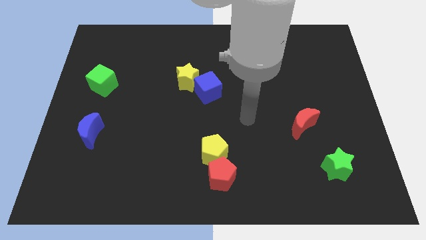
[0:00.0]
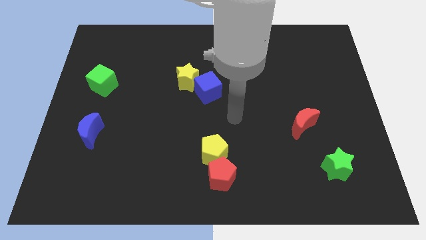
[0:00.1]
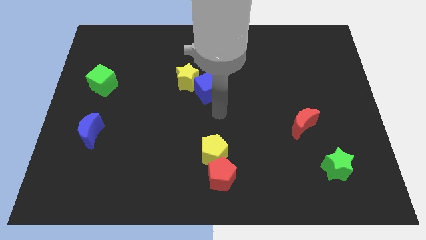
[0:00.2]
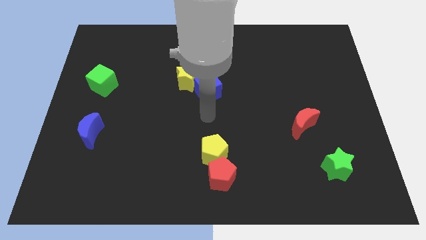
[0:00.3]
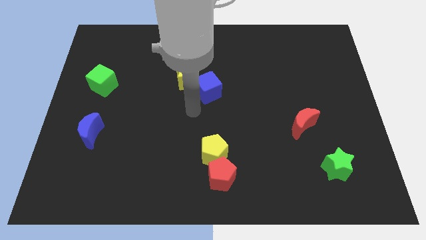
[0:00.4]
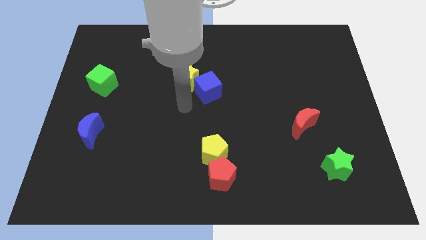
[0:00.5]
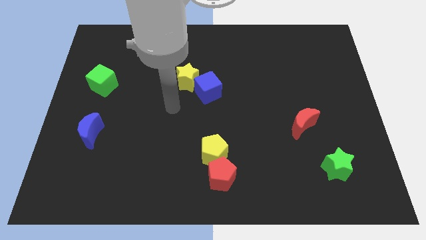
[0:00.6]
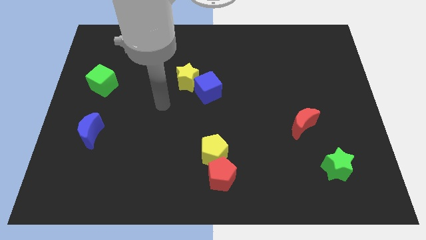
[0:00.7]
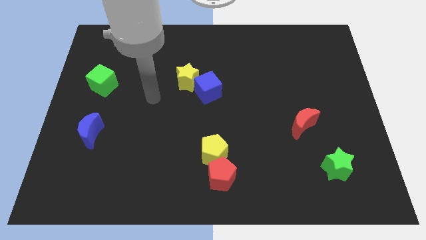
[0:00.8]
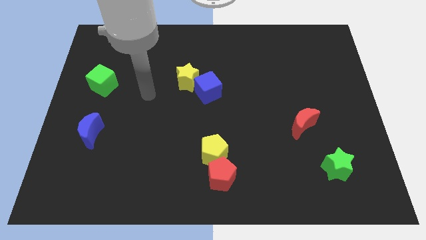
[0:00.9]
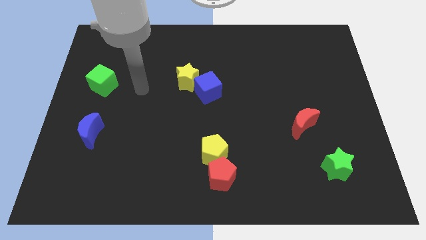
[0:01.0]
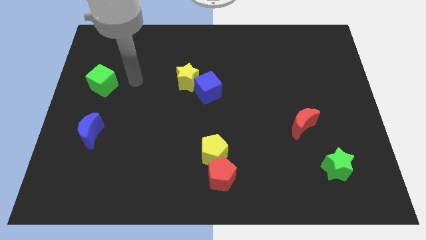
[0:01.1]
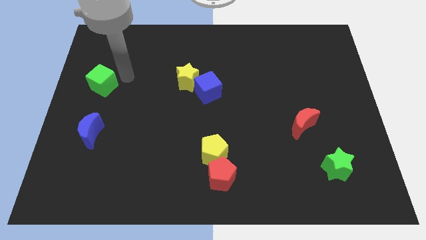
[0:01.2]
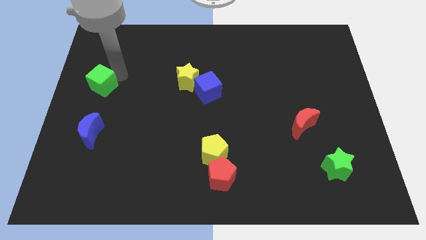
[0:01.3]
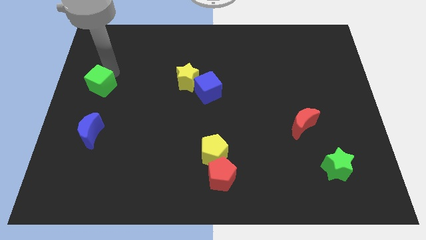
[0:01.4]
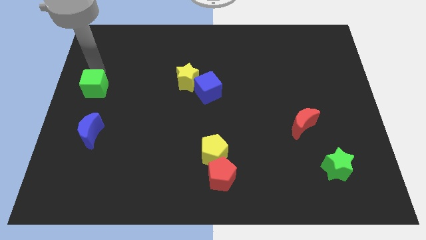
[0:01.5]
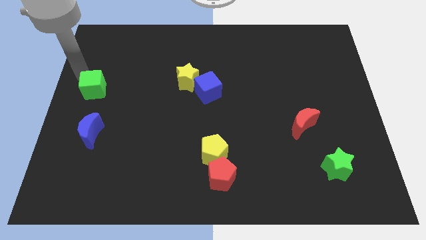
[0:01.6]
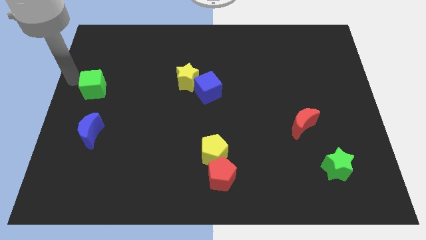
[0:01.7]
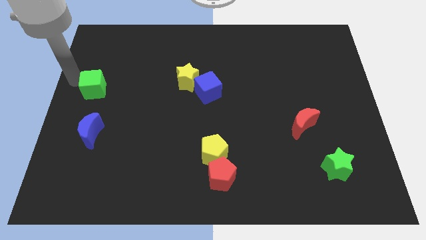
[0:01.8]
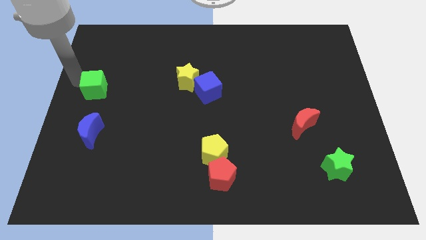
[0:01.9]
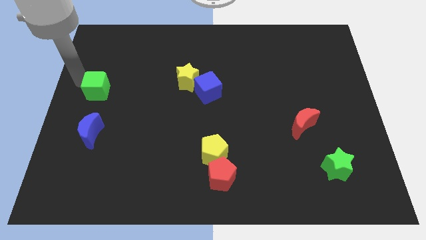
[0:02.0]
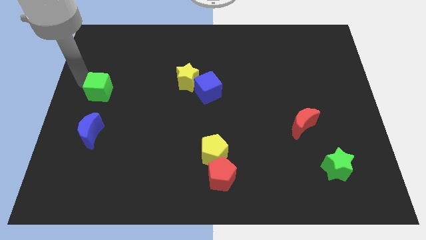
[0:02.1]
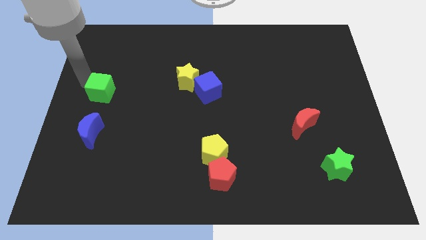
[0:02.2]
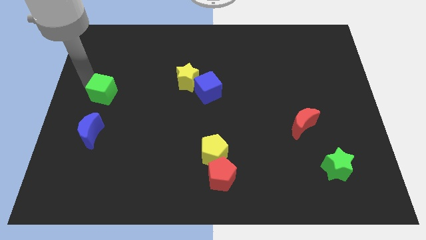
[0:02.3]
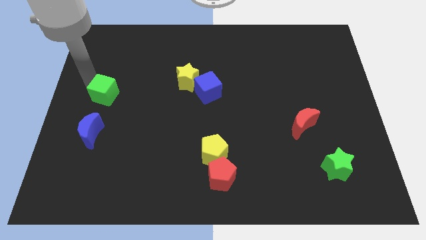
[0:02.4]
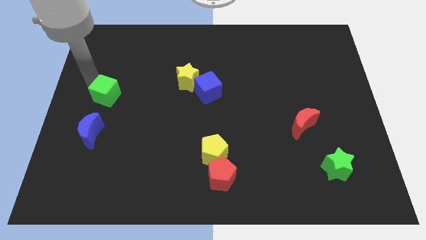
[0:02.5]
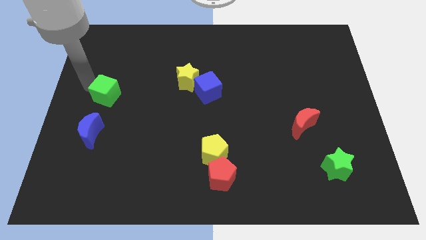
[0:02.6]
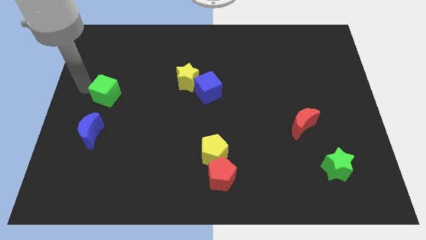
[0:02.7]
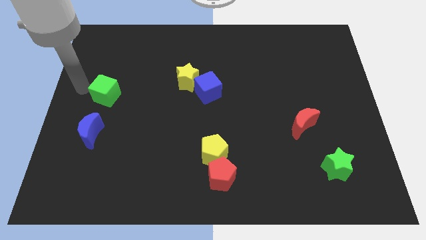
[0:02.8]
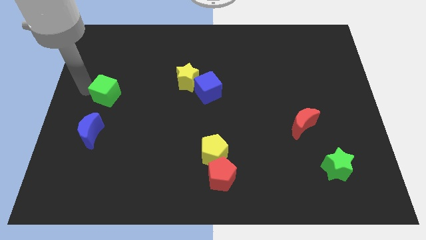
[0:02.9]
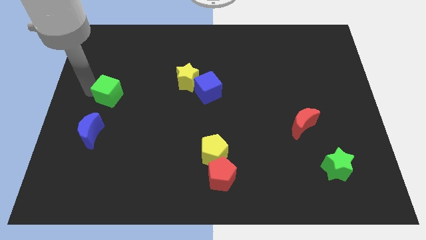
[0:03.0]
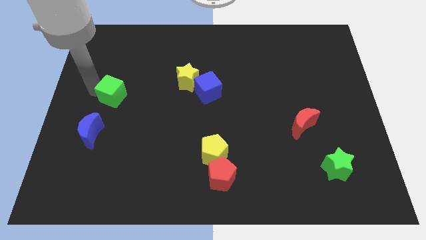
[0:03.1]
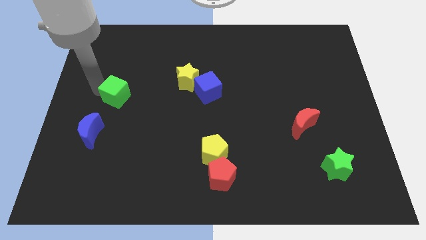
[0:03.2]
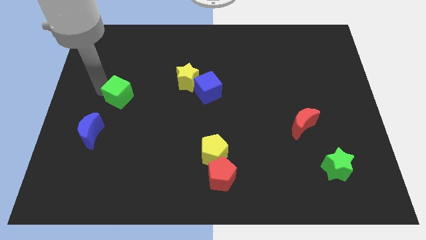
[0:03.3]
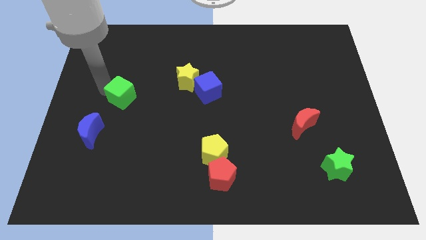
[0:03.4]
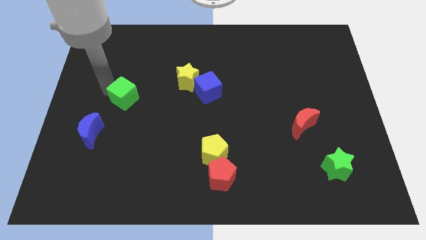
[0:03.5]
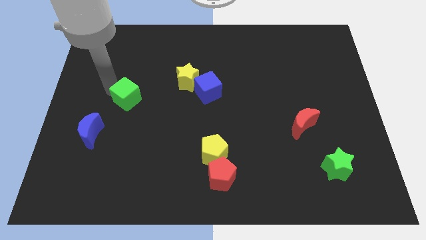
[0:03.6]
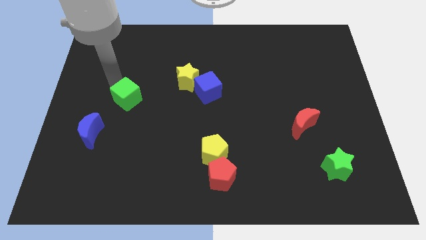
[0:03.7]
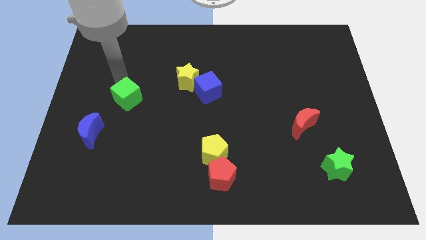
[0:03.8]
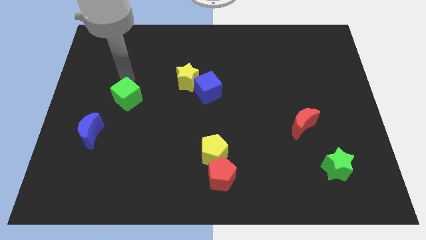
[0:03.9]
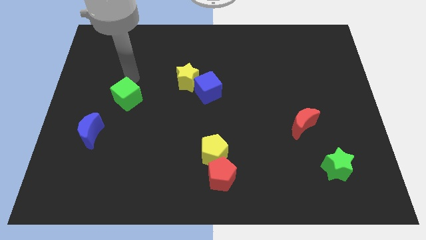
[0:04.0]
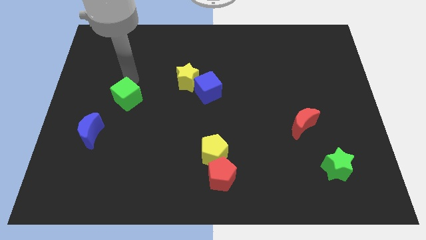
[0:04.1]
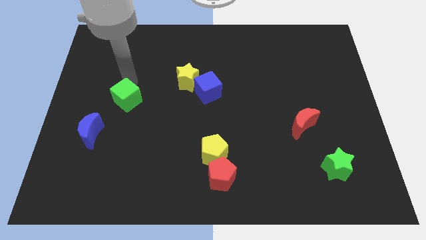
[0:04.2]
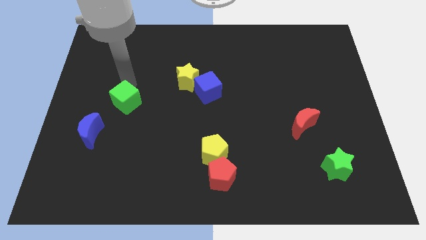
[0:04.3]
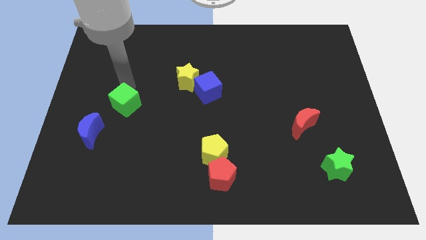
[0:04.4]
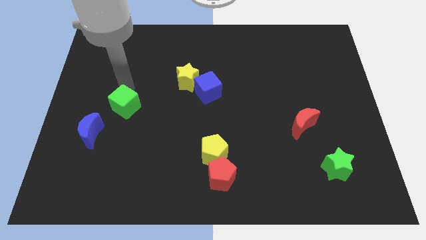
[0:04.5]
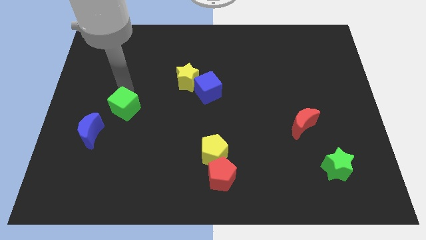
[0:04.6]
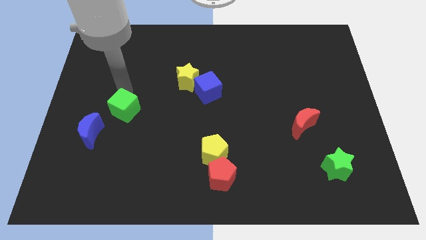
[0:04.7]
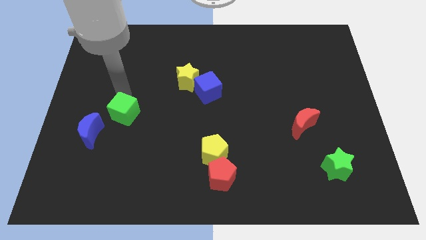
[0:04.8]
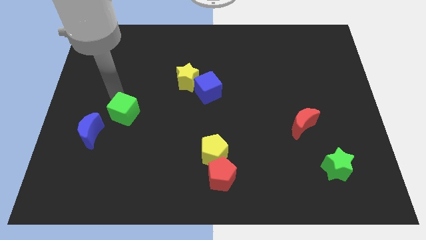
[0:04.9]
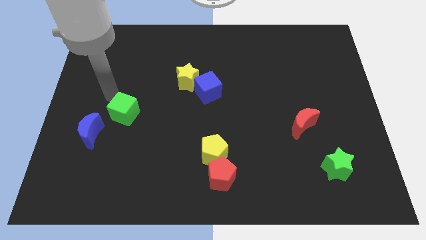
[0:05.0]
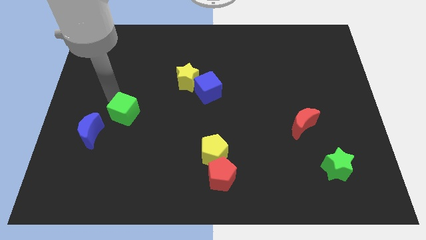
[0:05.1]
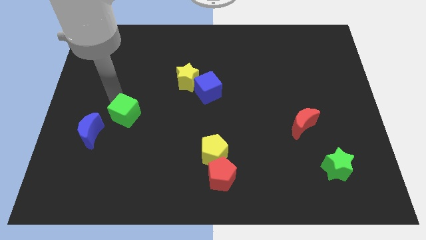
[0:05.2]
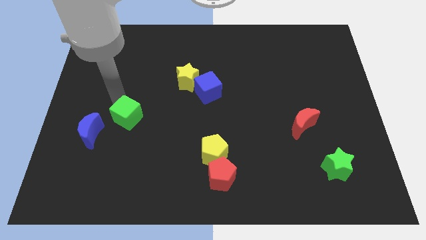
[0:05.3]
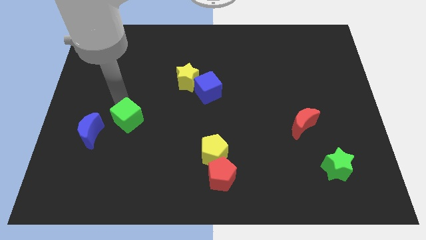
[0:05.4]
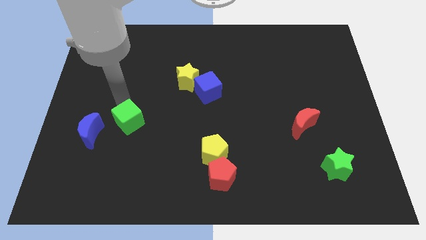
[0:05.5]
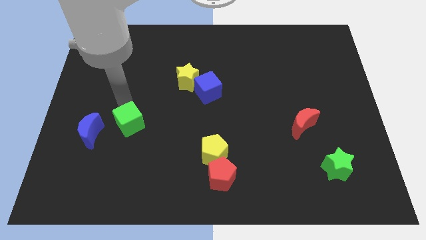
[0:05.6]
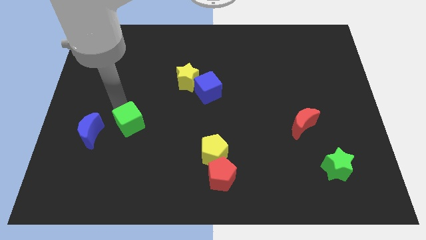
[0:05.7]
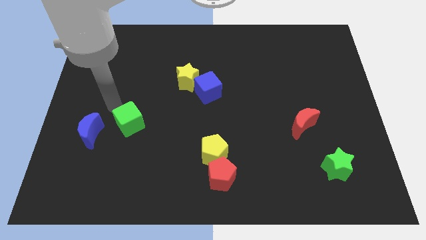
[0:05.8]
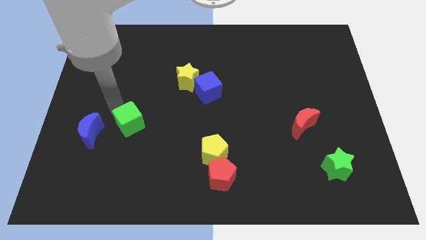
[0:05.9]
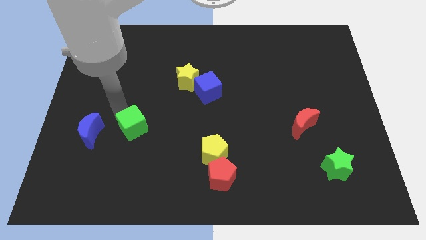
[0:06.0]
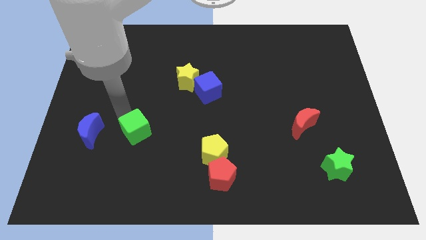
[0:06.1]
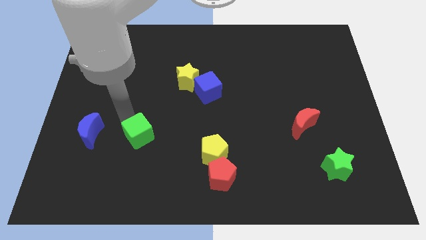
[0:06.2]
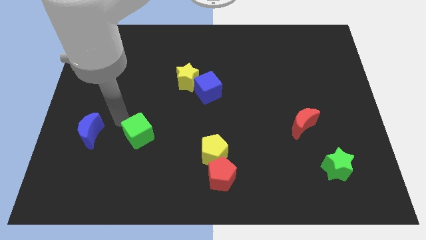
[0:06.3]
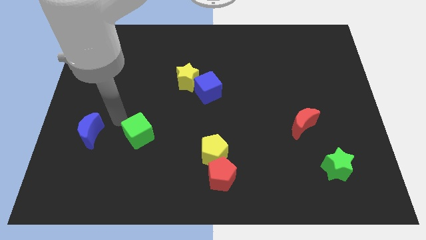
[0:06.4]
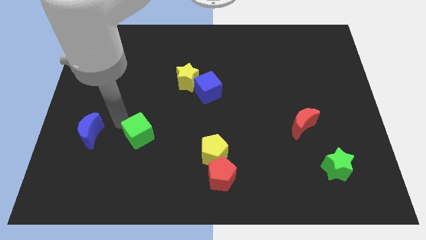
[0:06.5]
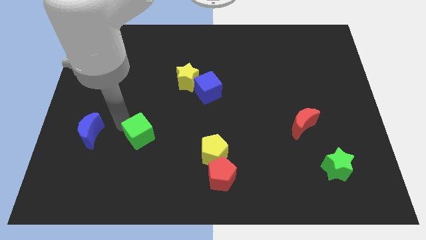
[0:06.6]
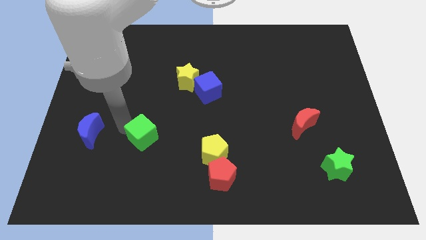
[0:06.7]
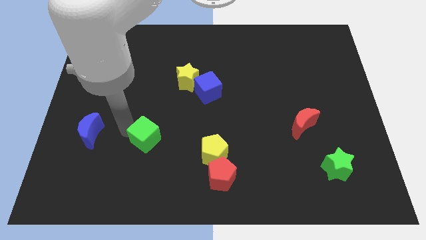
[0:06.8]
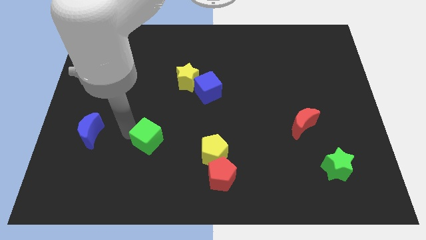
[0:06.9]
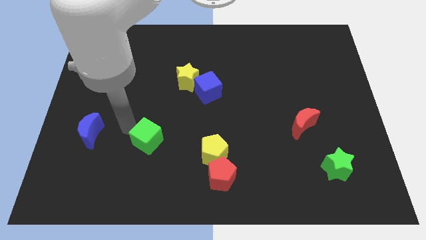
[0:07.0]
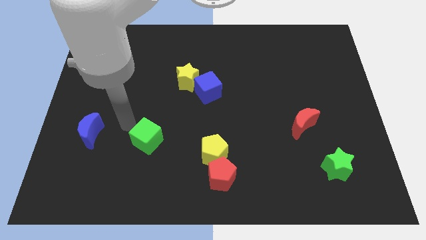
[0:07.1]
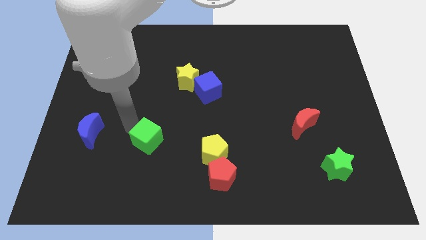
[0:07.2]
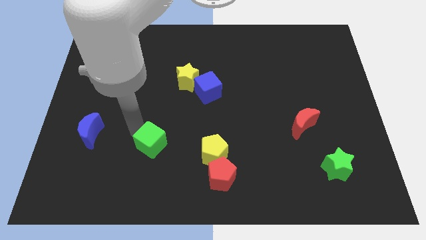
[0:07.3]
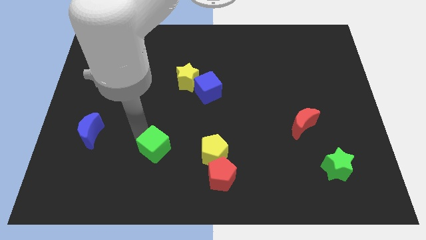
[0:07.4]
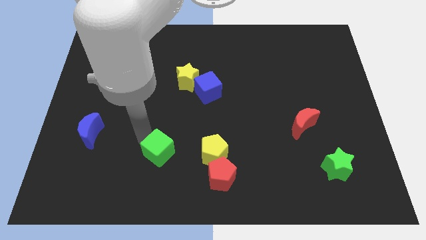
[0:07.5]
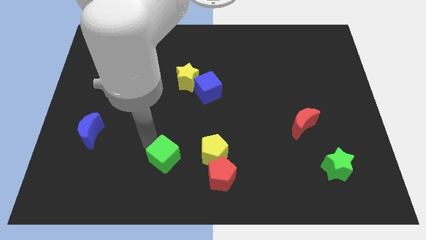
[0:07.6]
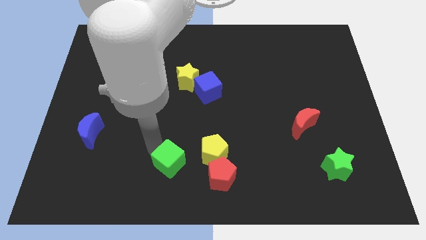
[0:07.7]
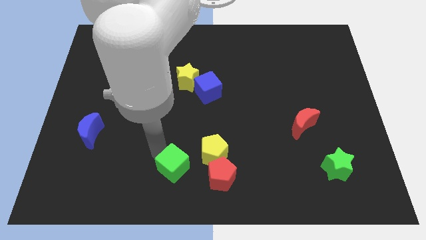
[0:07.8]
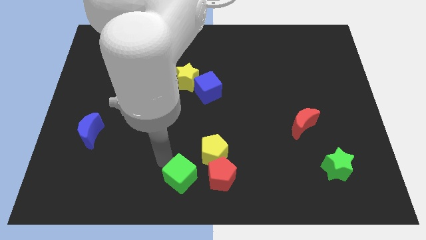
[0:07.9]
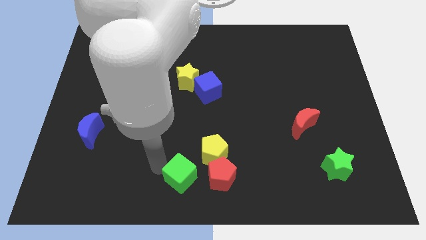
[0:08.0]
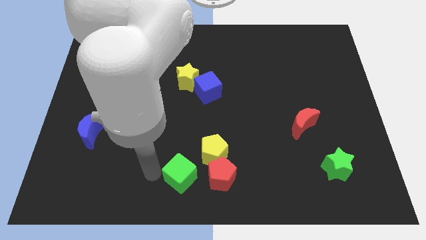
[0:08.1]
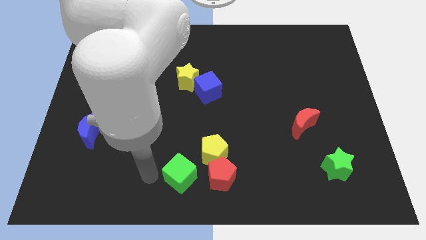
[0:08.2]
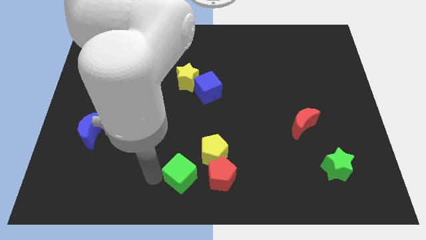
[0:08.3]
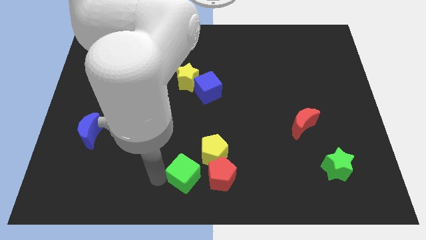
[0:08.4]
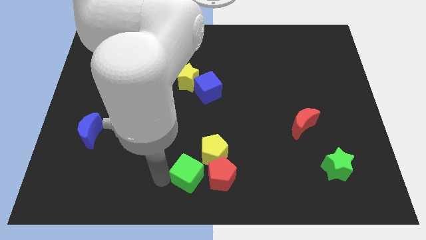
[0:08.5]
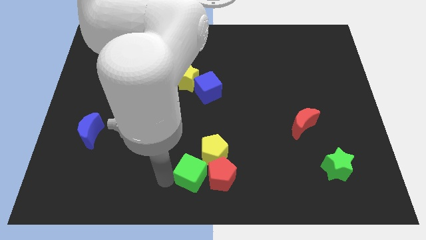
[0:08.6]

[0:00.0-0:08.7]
put the green cube towards the red pentagon
